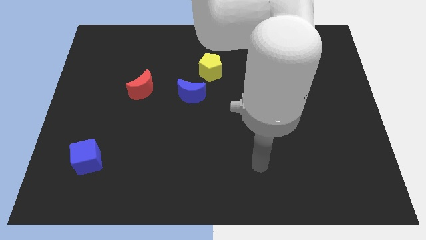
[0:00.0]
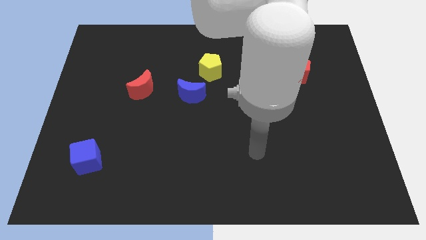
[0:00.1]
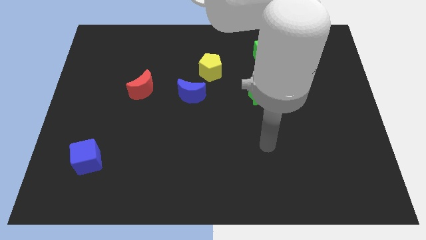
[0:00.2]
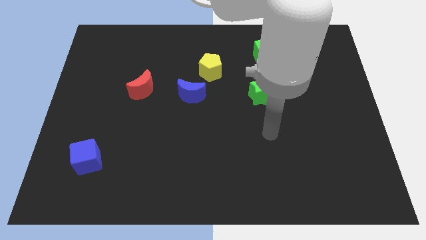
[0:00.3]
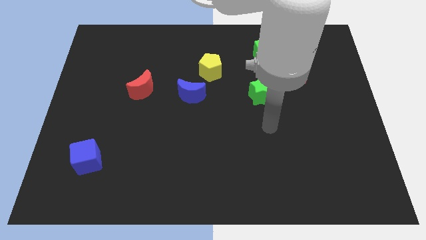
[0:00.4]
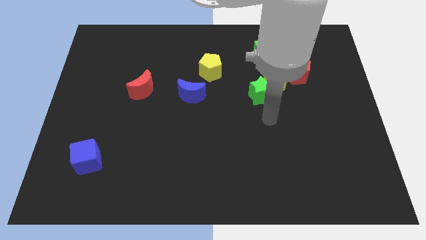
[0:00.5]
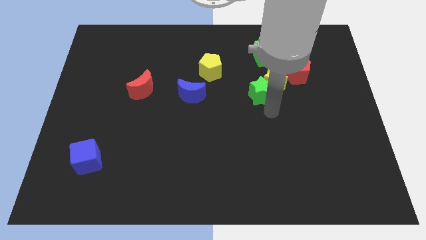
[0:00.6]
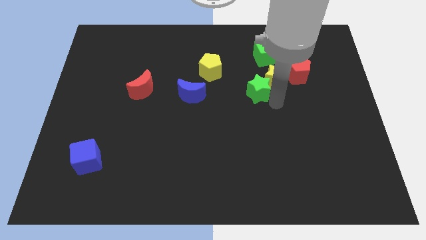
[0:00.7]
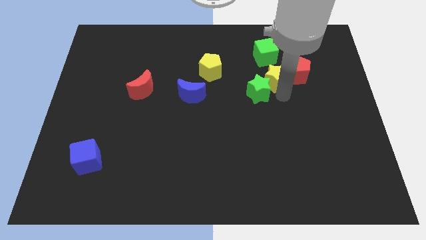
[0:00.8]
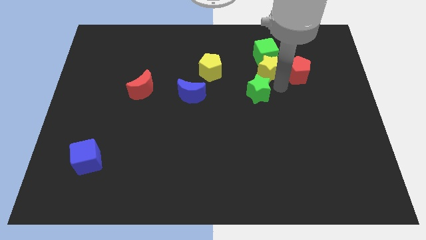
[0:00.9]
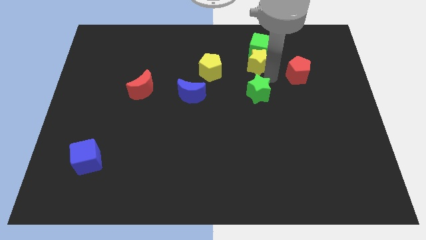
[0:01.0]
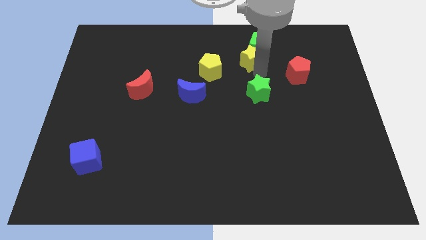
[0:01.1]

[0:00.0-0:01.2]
pull the green star apart from the yellow star

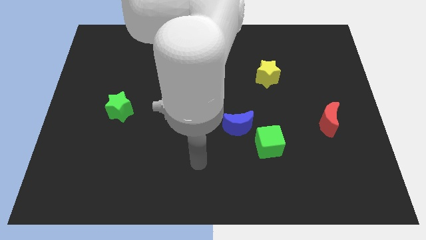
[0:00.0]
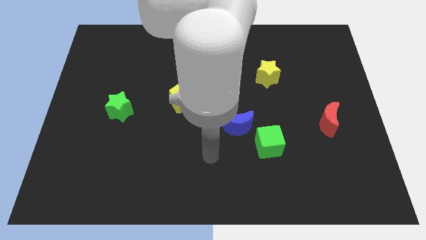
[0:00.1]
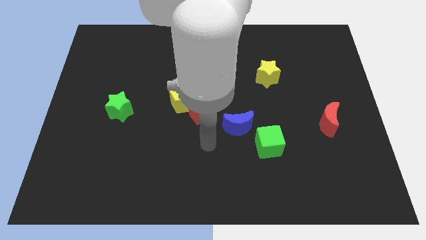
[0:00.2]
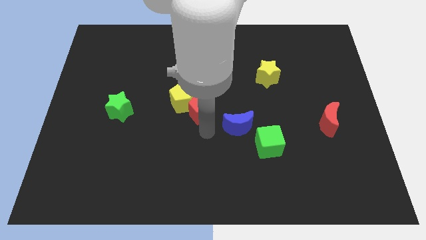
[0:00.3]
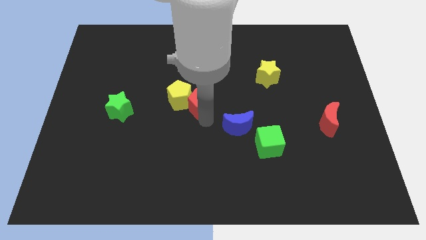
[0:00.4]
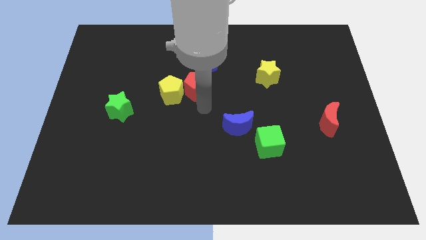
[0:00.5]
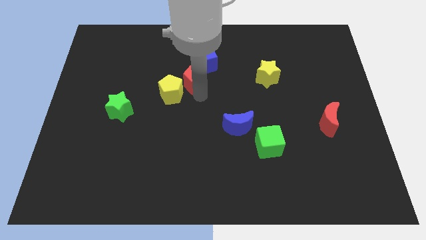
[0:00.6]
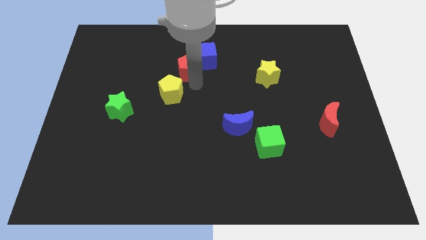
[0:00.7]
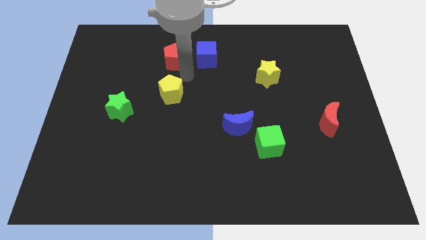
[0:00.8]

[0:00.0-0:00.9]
move the yellow pentagon away from the red pentagon

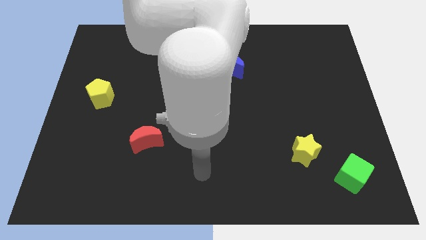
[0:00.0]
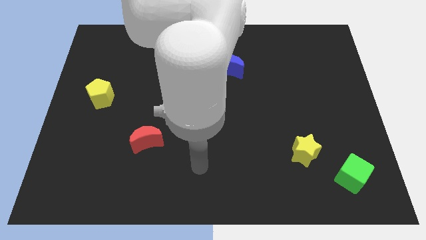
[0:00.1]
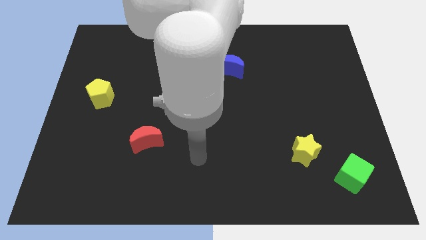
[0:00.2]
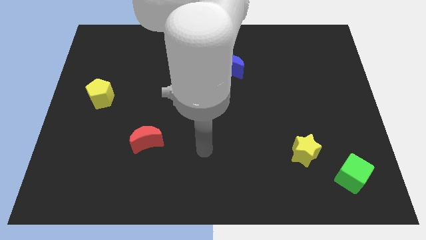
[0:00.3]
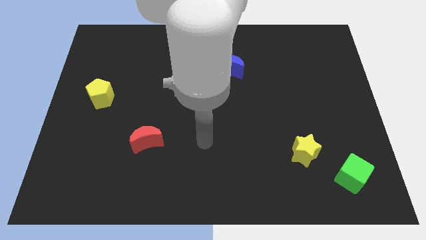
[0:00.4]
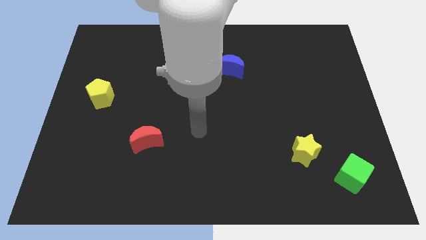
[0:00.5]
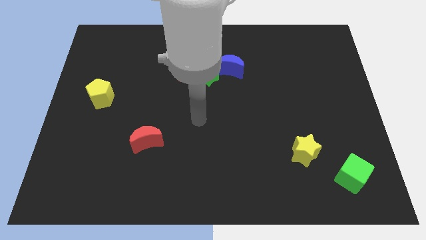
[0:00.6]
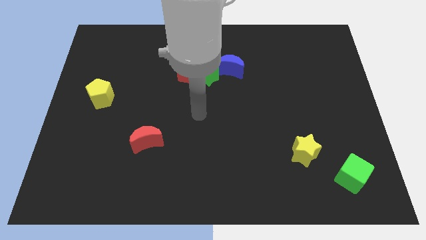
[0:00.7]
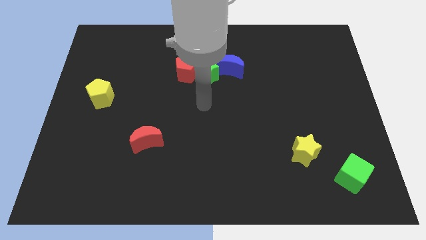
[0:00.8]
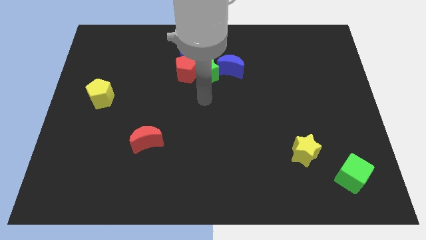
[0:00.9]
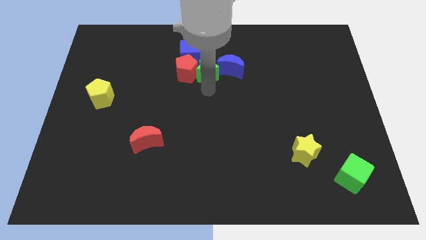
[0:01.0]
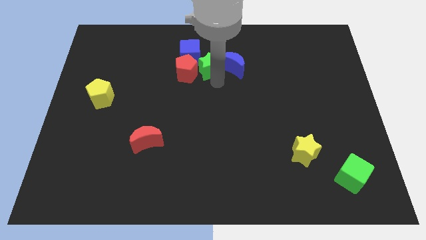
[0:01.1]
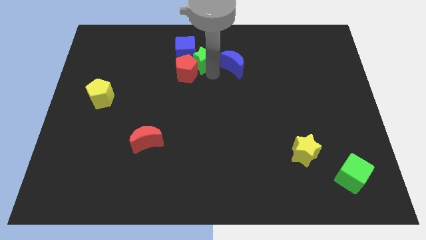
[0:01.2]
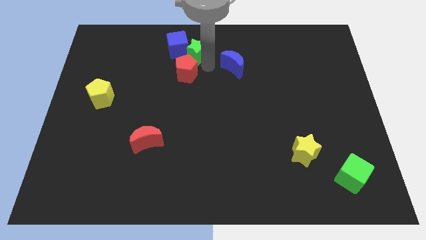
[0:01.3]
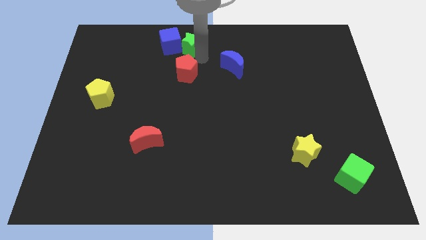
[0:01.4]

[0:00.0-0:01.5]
separate the red pentagon from the green star and blue cube

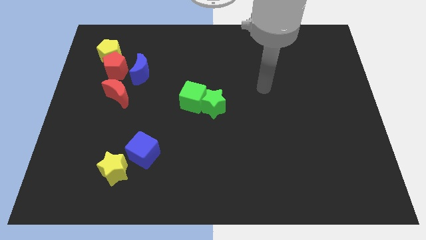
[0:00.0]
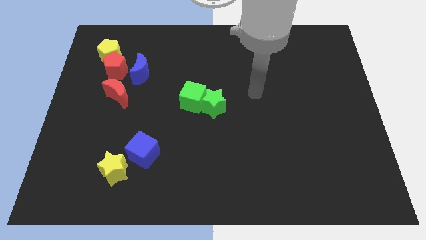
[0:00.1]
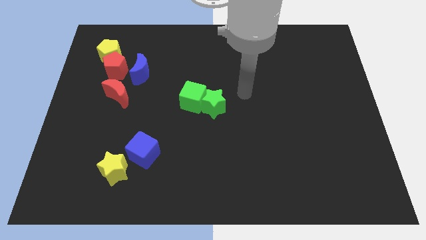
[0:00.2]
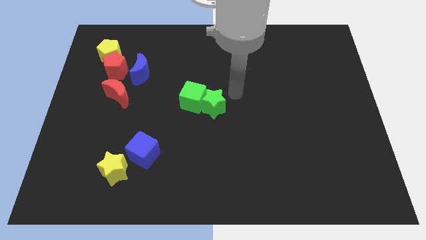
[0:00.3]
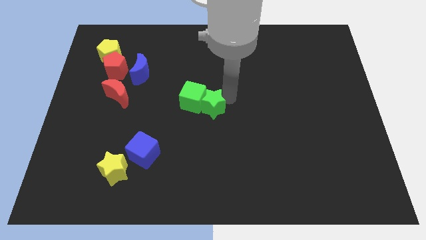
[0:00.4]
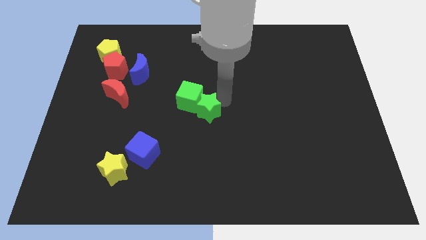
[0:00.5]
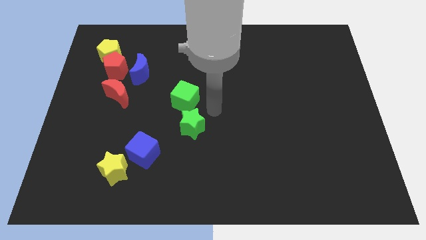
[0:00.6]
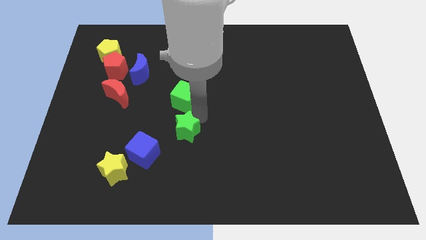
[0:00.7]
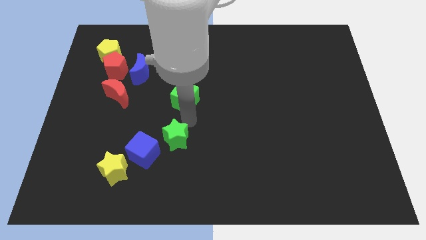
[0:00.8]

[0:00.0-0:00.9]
pull the green cube apart from the green star

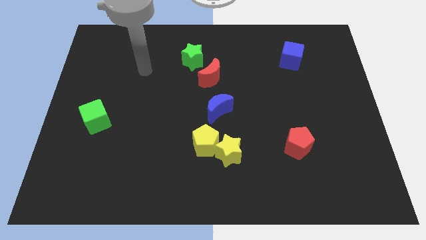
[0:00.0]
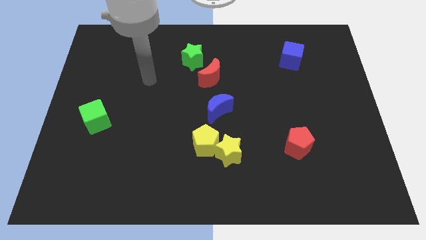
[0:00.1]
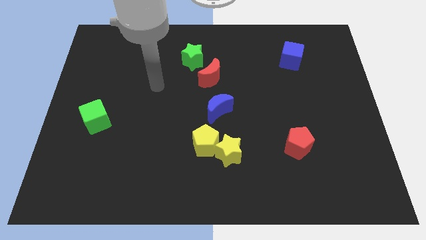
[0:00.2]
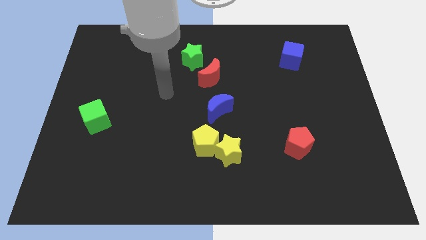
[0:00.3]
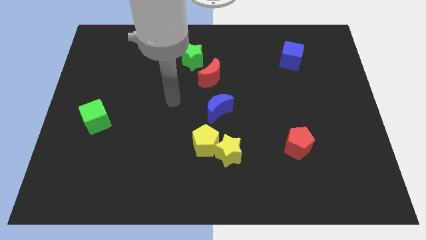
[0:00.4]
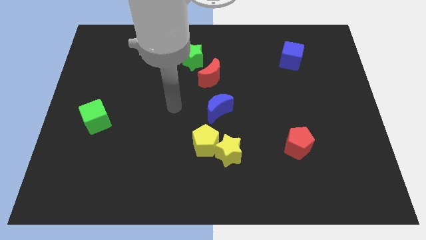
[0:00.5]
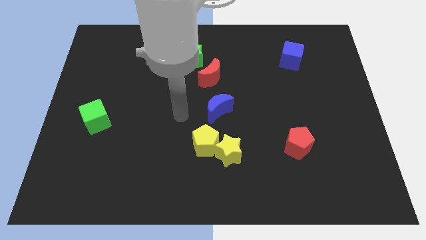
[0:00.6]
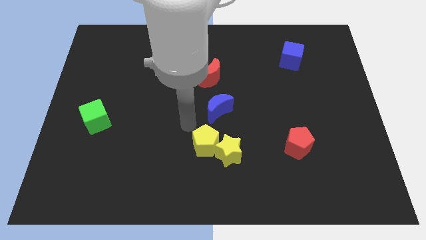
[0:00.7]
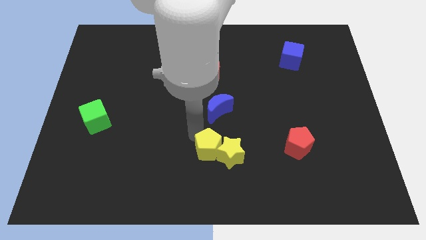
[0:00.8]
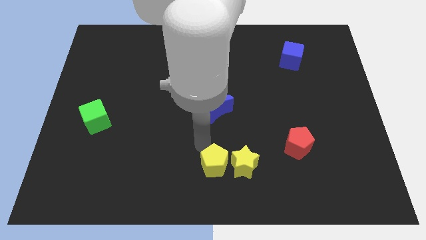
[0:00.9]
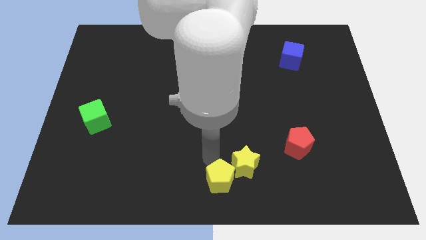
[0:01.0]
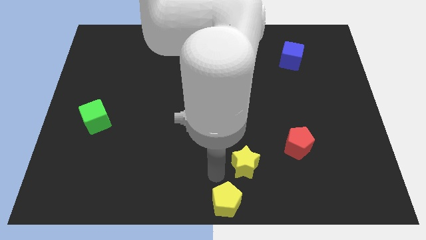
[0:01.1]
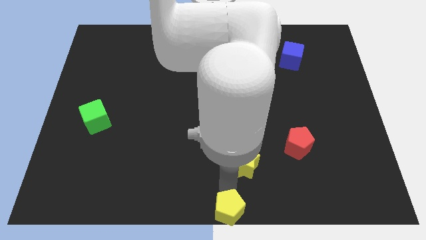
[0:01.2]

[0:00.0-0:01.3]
separate the yellow star from the yellow pentagon

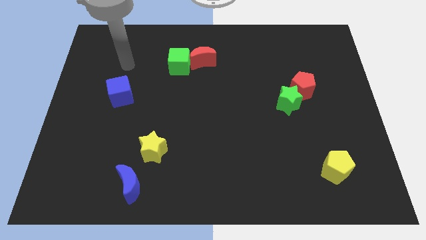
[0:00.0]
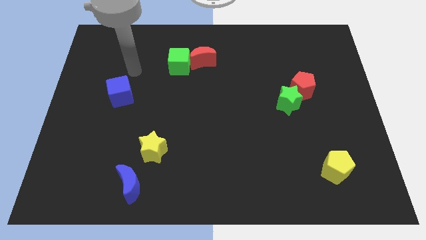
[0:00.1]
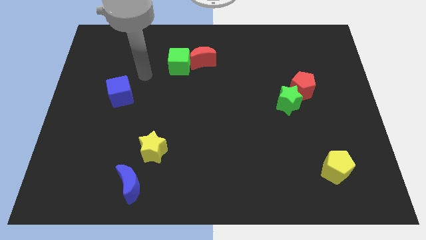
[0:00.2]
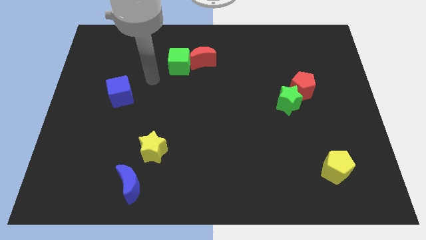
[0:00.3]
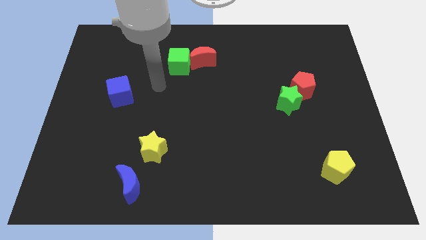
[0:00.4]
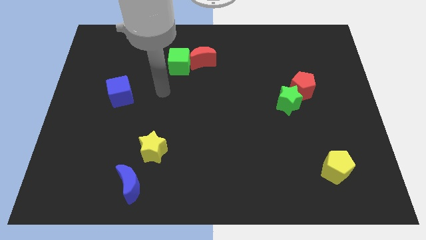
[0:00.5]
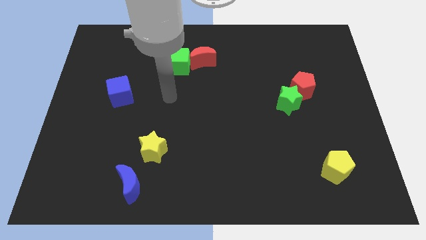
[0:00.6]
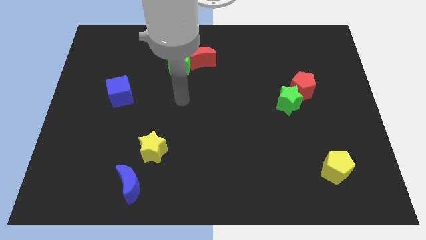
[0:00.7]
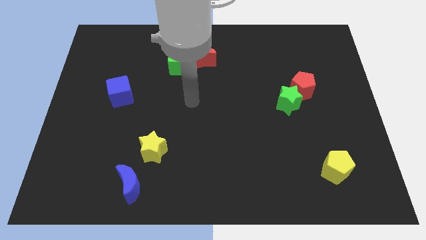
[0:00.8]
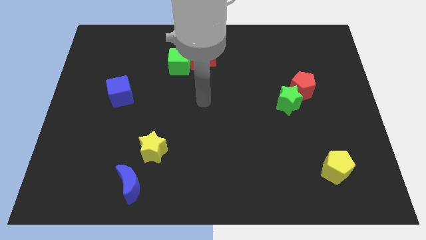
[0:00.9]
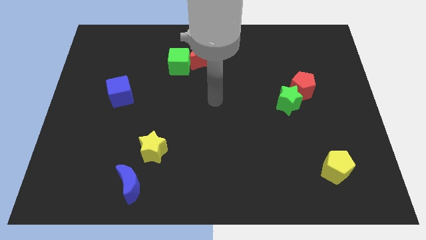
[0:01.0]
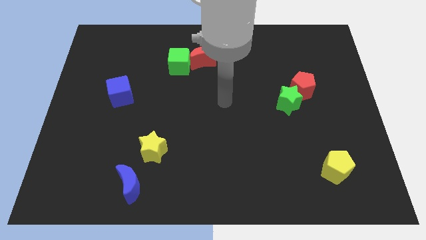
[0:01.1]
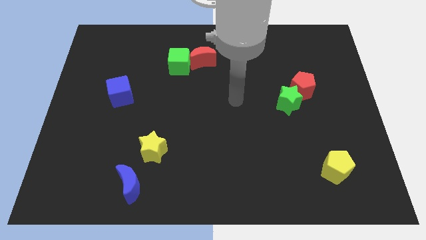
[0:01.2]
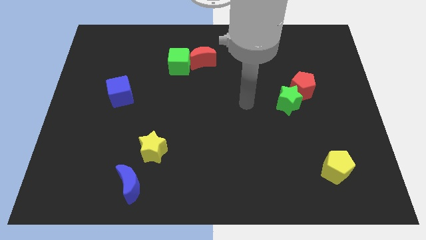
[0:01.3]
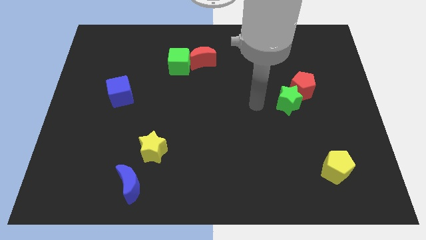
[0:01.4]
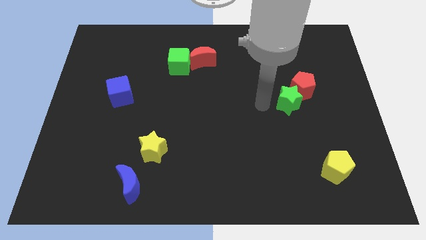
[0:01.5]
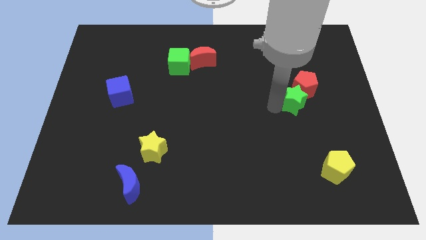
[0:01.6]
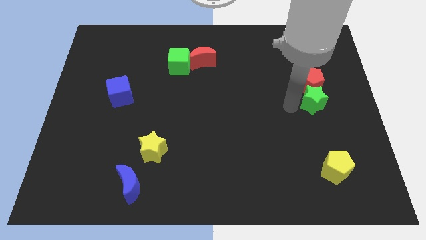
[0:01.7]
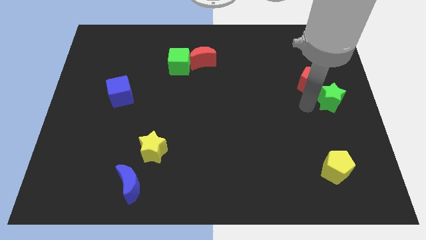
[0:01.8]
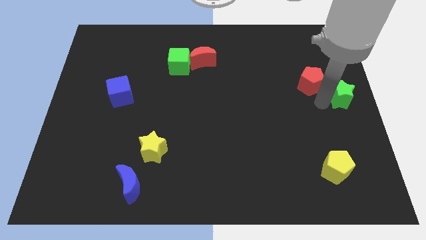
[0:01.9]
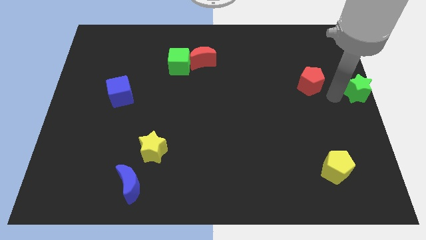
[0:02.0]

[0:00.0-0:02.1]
separate the red pentagon from the green star

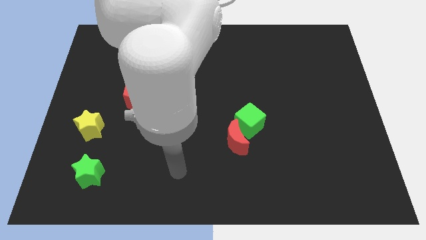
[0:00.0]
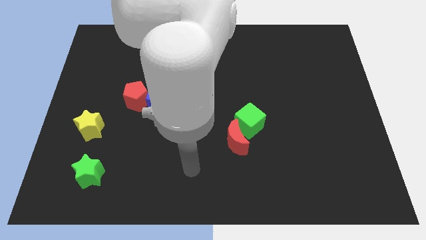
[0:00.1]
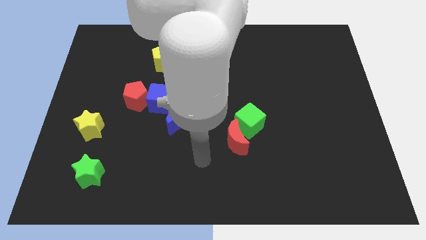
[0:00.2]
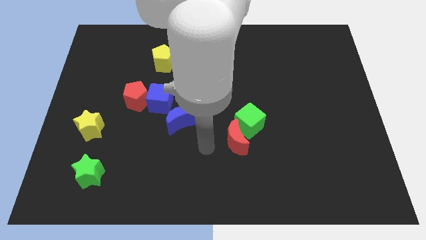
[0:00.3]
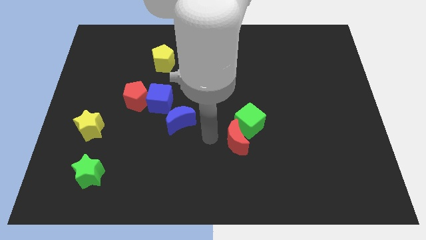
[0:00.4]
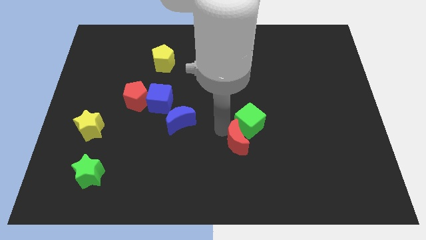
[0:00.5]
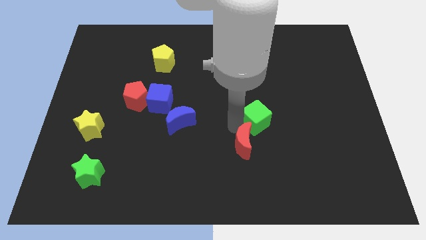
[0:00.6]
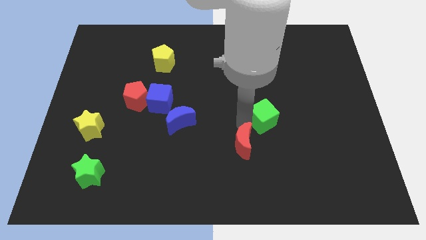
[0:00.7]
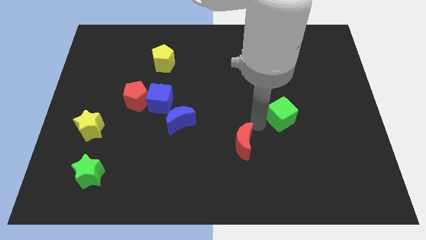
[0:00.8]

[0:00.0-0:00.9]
separate the red moon from the green cube

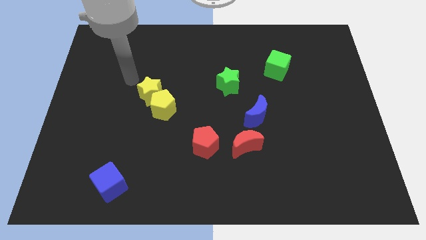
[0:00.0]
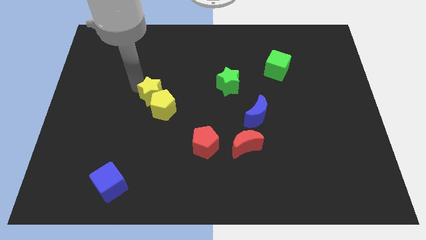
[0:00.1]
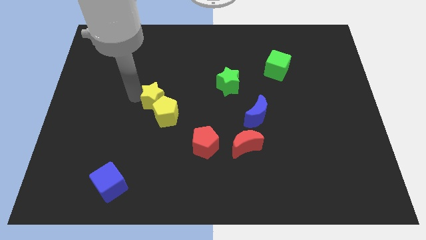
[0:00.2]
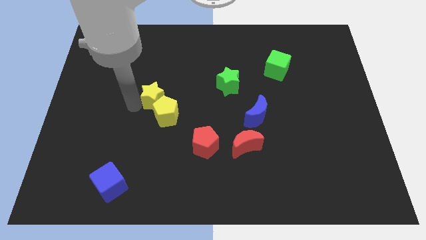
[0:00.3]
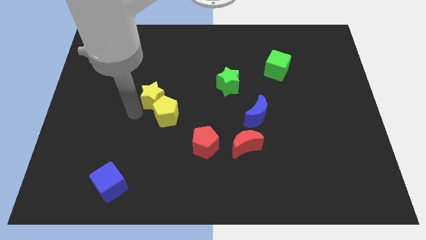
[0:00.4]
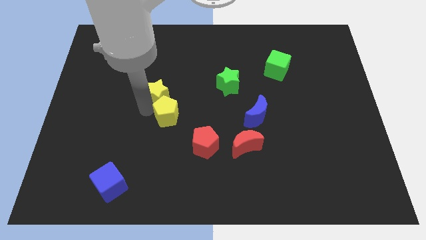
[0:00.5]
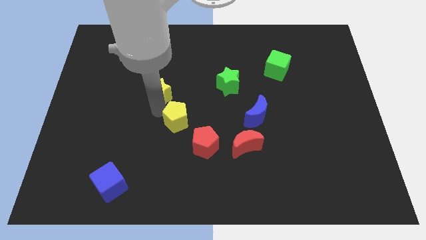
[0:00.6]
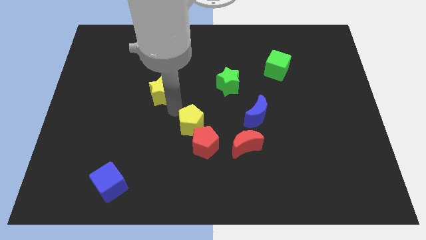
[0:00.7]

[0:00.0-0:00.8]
move the yellow star away from the yellow pentagon
